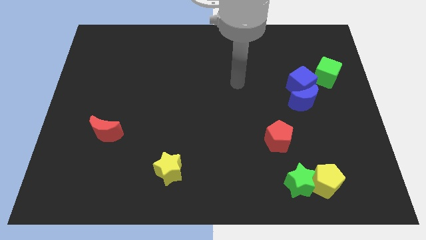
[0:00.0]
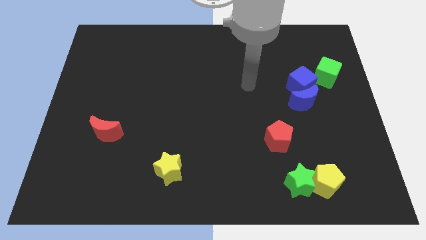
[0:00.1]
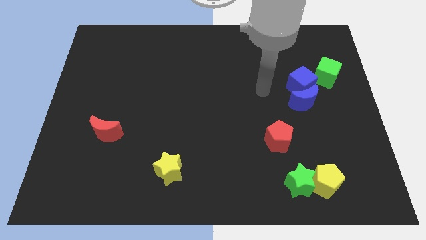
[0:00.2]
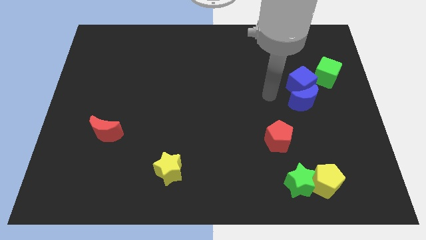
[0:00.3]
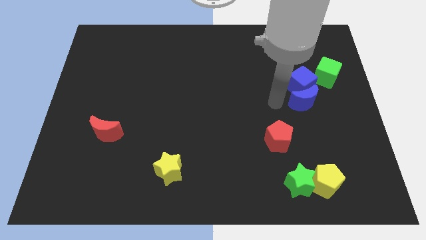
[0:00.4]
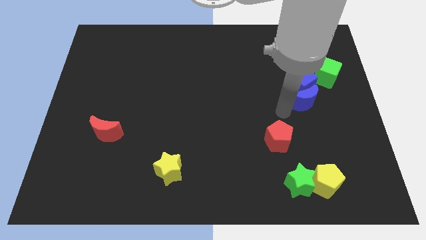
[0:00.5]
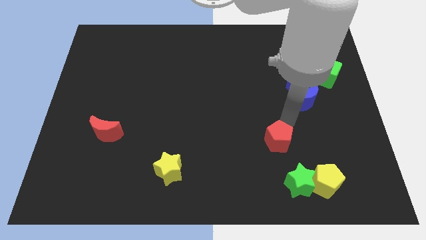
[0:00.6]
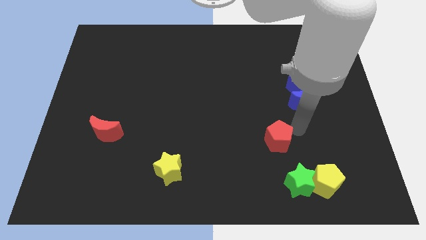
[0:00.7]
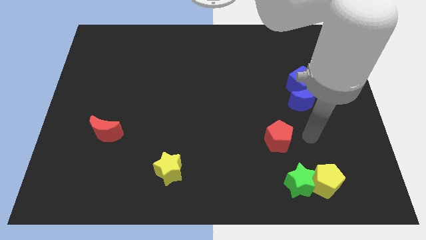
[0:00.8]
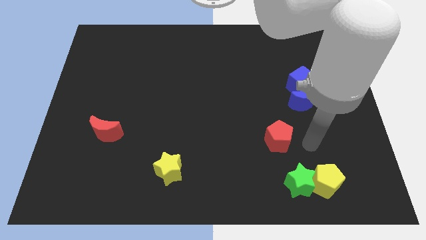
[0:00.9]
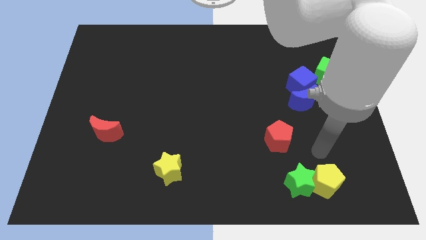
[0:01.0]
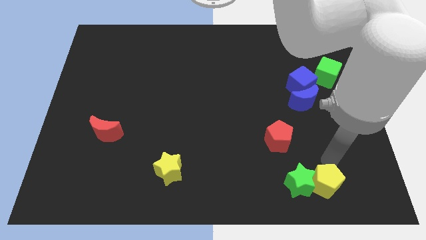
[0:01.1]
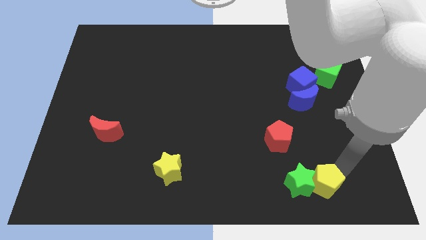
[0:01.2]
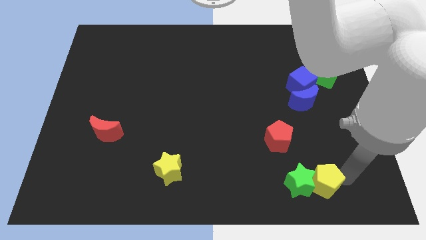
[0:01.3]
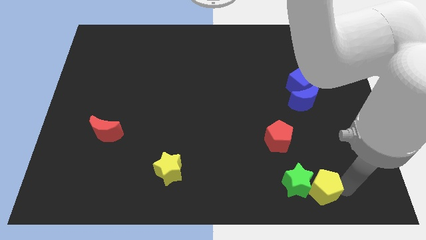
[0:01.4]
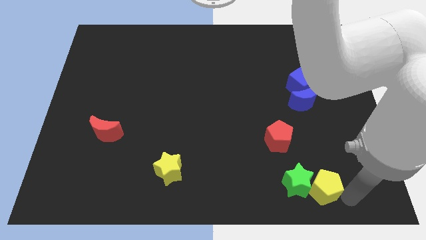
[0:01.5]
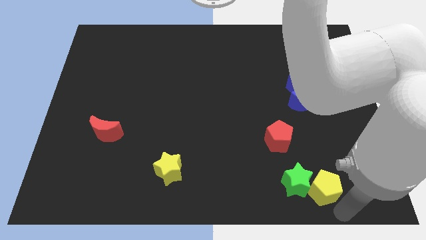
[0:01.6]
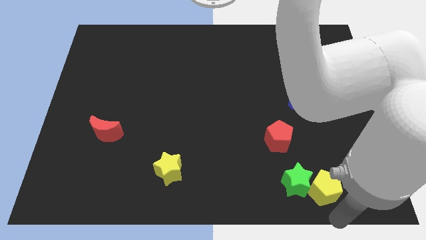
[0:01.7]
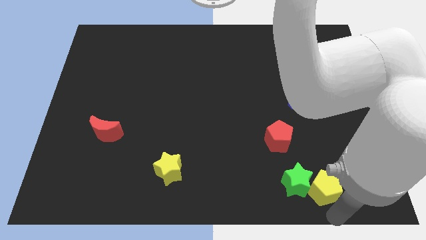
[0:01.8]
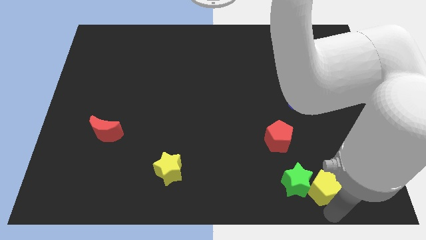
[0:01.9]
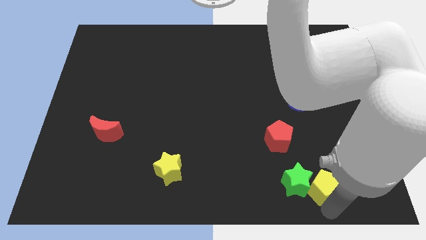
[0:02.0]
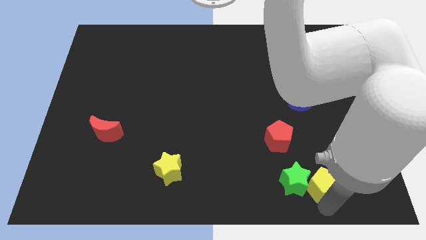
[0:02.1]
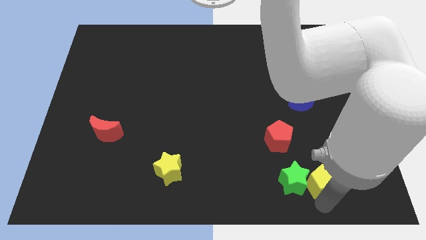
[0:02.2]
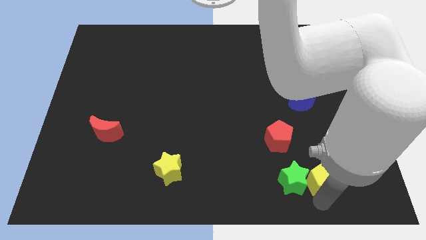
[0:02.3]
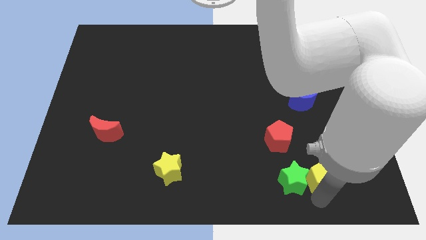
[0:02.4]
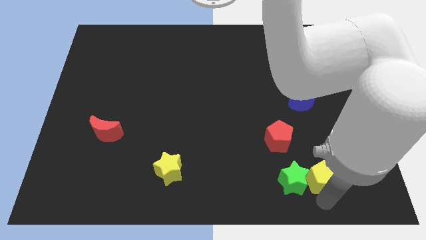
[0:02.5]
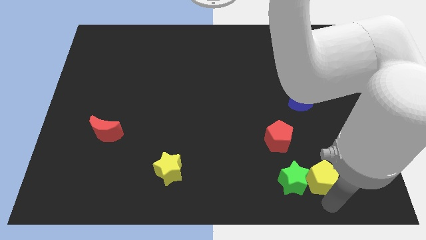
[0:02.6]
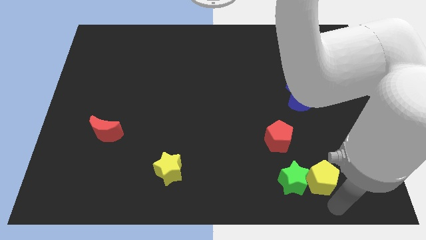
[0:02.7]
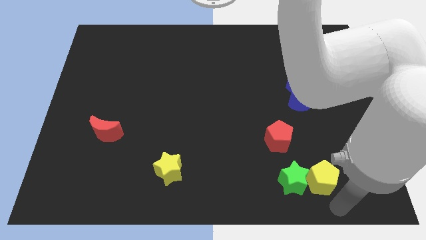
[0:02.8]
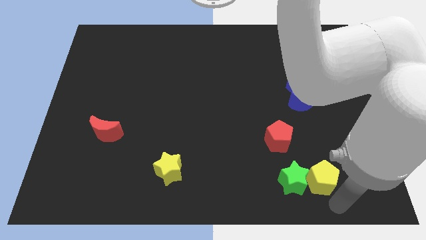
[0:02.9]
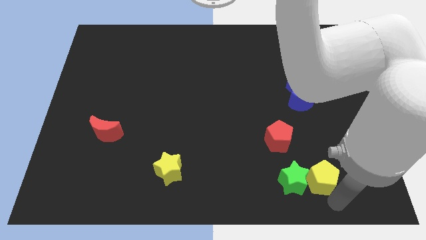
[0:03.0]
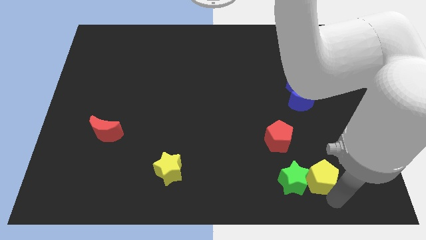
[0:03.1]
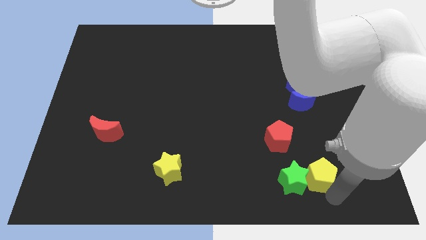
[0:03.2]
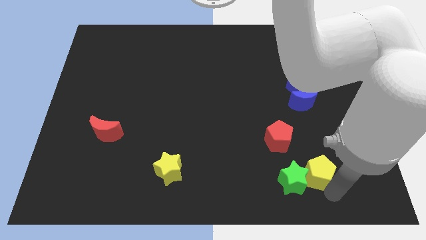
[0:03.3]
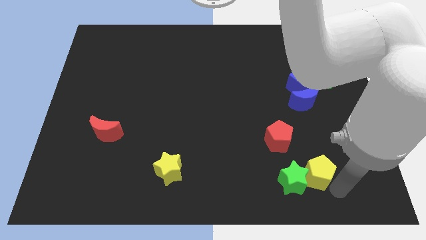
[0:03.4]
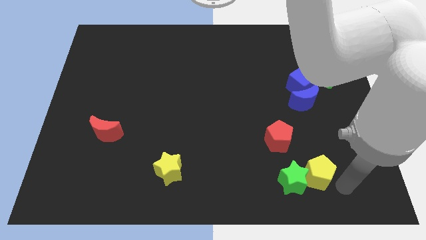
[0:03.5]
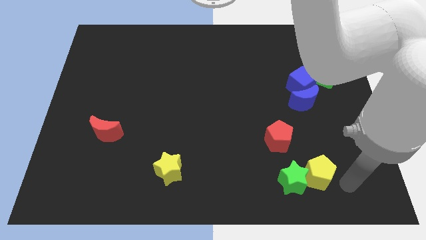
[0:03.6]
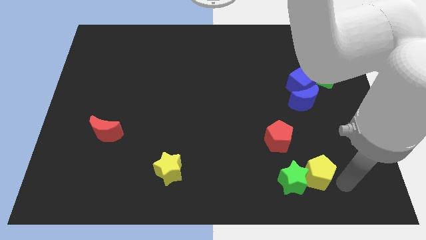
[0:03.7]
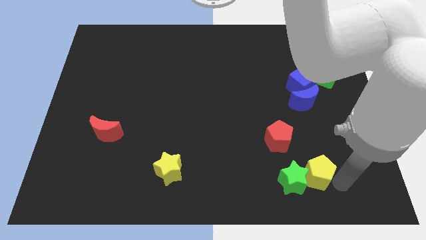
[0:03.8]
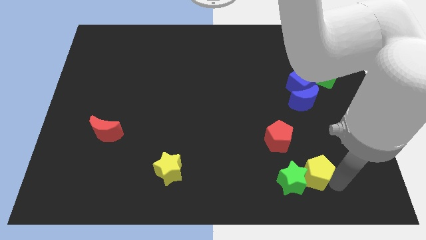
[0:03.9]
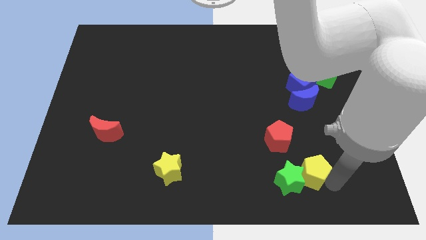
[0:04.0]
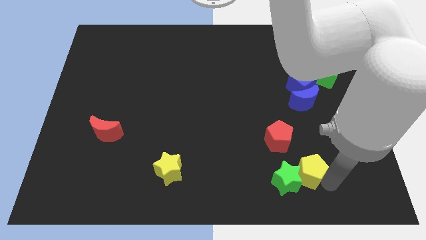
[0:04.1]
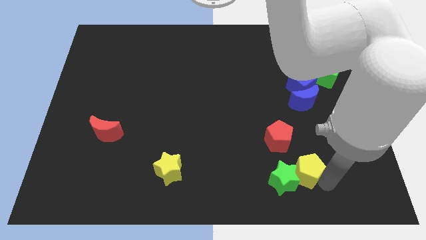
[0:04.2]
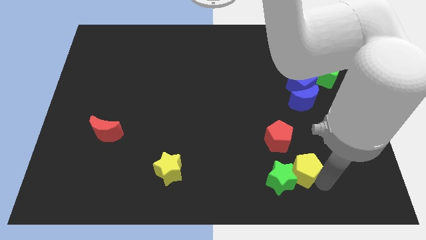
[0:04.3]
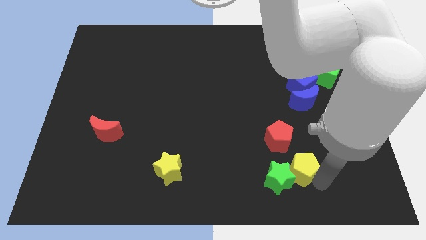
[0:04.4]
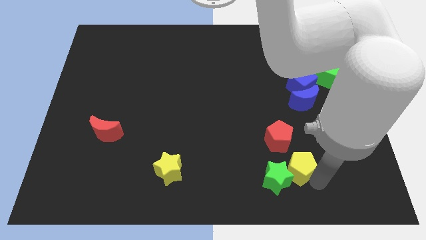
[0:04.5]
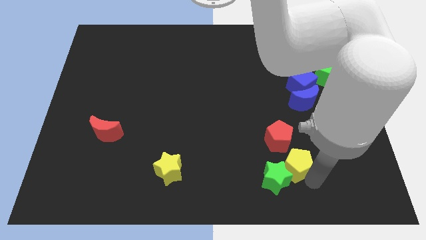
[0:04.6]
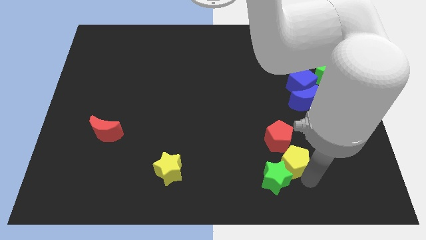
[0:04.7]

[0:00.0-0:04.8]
slightly move the yellow pentagon upwards and then to the left

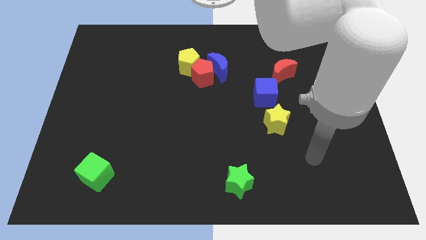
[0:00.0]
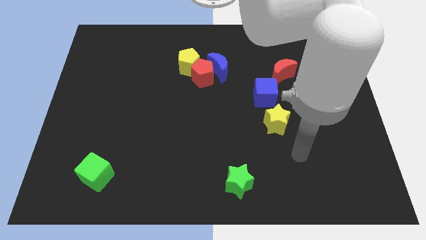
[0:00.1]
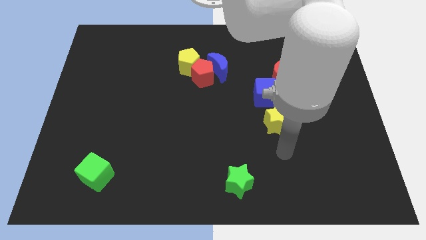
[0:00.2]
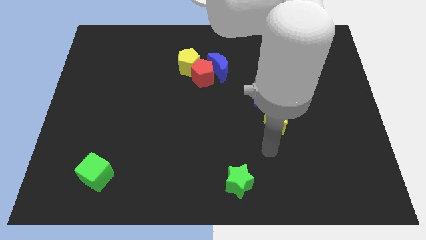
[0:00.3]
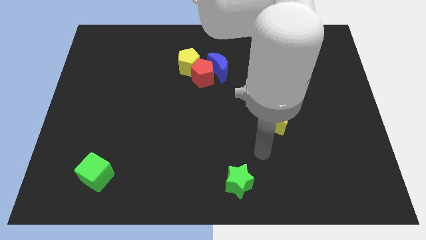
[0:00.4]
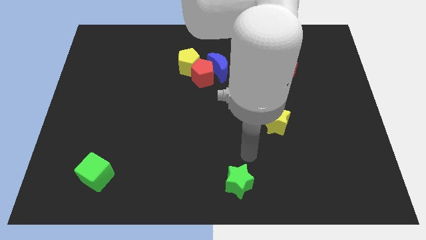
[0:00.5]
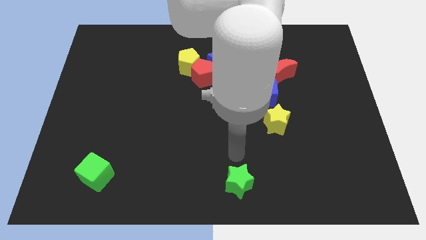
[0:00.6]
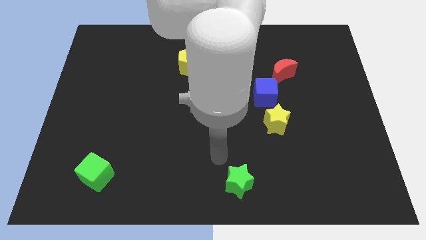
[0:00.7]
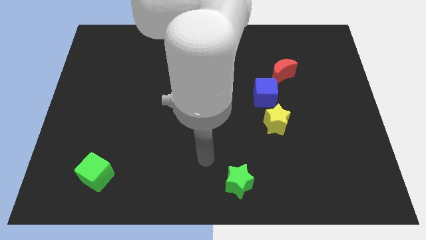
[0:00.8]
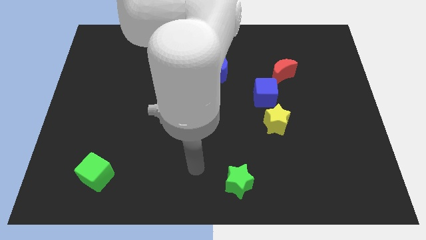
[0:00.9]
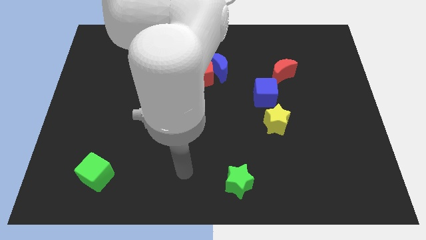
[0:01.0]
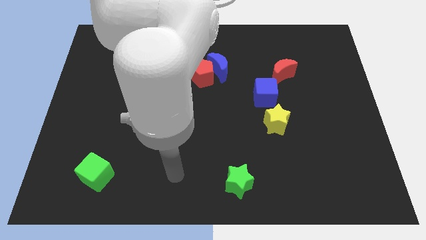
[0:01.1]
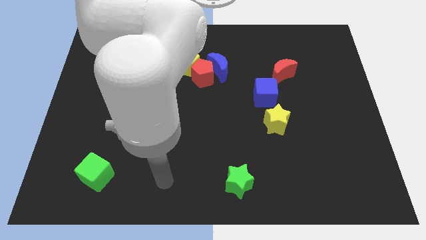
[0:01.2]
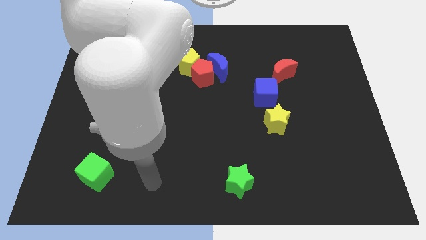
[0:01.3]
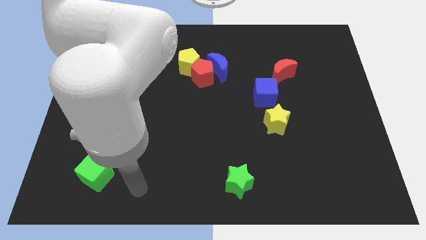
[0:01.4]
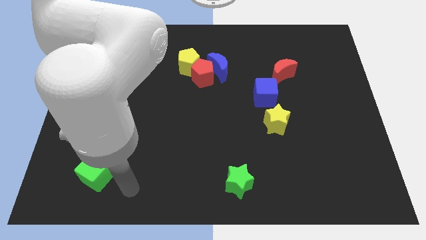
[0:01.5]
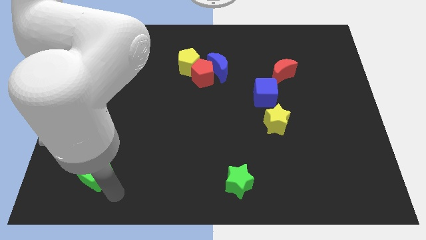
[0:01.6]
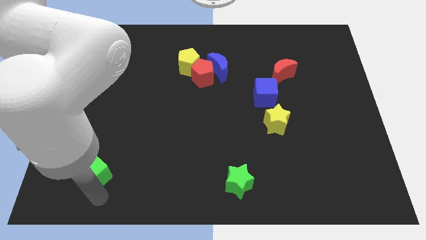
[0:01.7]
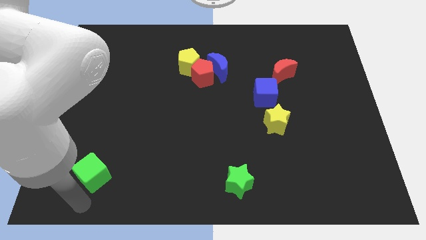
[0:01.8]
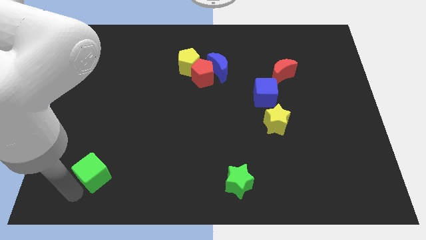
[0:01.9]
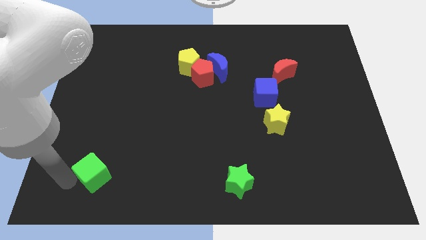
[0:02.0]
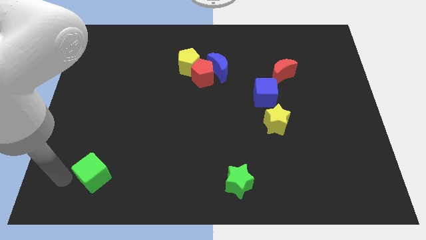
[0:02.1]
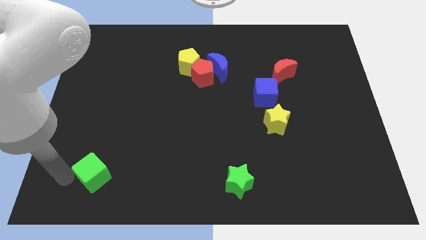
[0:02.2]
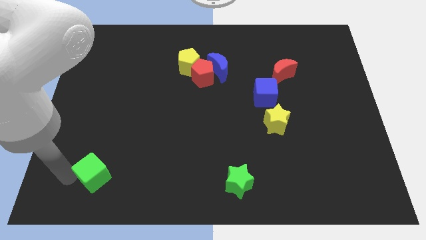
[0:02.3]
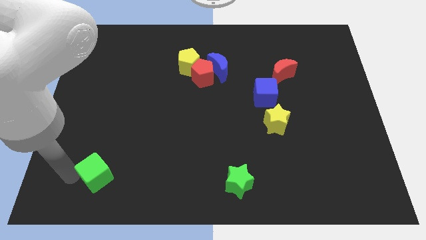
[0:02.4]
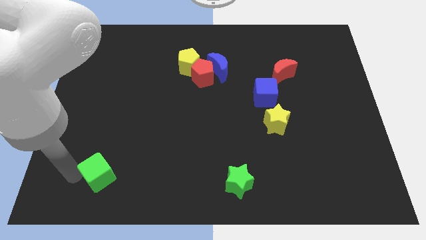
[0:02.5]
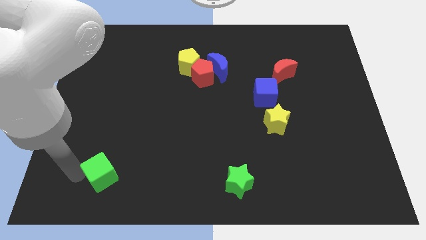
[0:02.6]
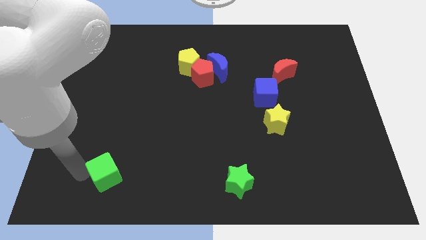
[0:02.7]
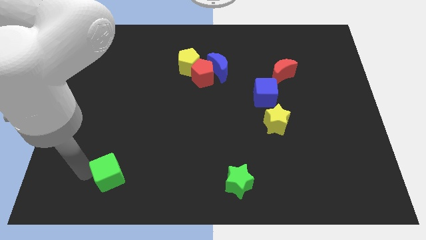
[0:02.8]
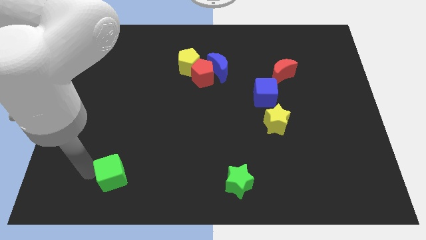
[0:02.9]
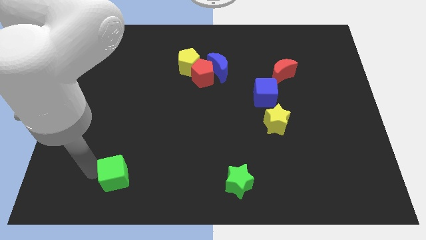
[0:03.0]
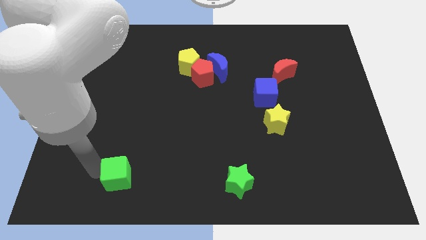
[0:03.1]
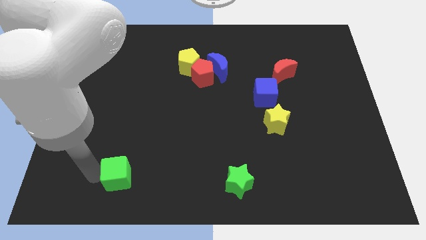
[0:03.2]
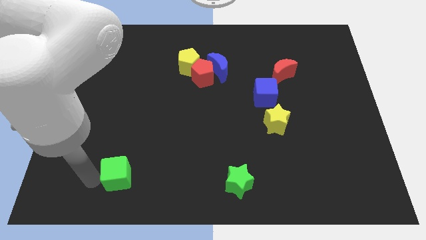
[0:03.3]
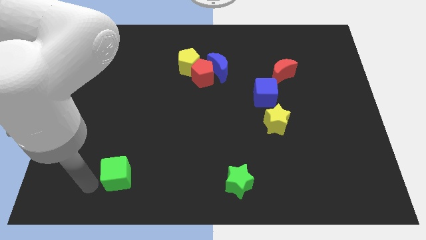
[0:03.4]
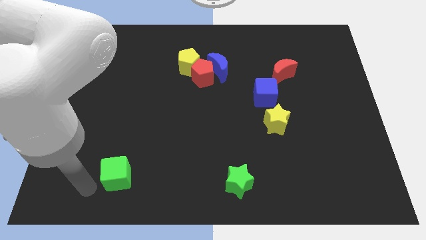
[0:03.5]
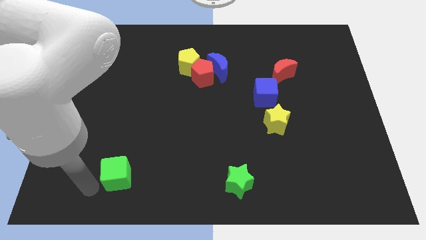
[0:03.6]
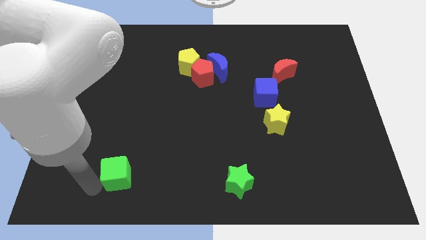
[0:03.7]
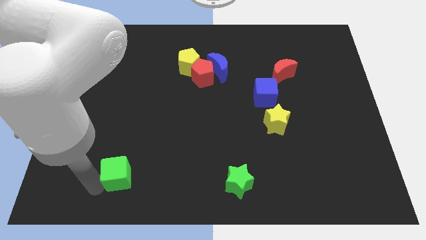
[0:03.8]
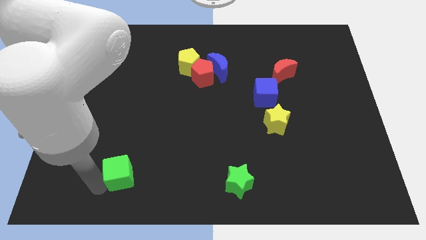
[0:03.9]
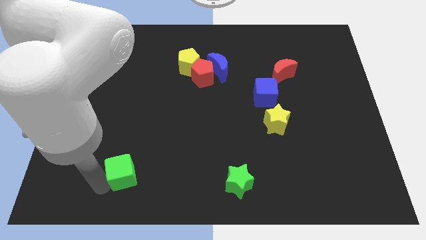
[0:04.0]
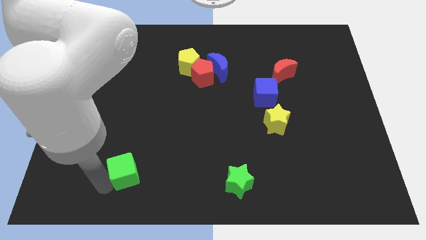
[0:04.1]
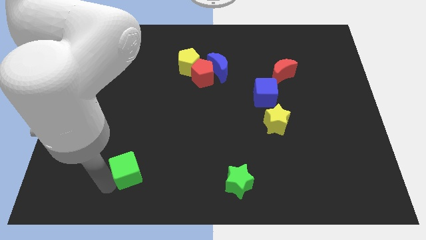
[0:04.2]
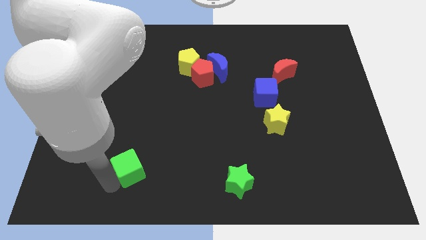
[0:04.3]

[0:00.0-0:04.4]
move the green cube right somewhat
